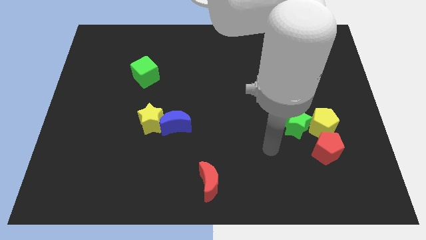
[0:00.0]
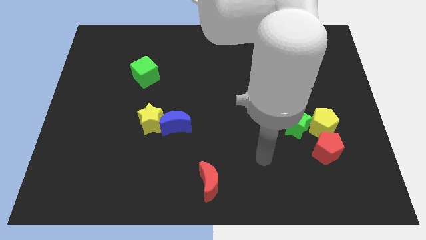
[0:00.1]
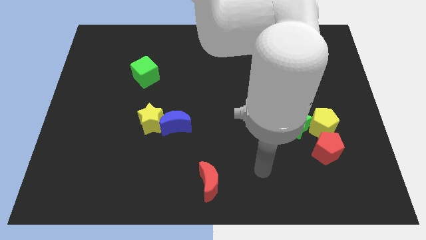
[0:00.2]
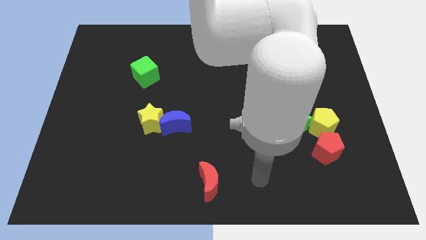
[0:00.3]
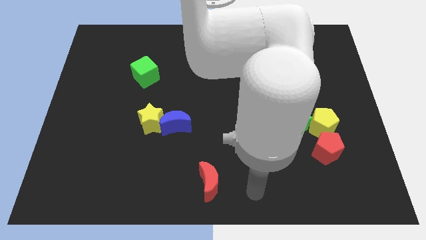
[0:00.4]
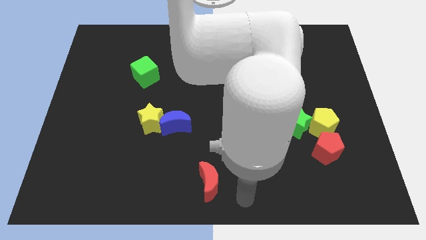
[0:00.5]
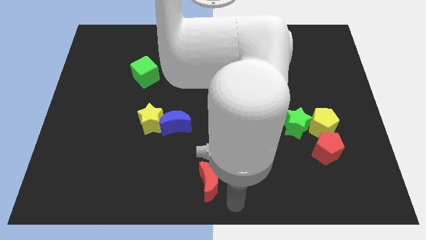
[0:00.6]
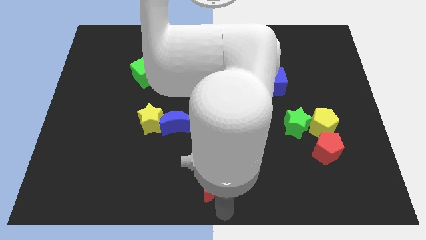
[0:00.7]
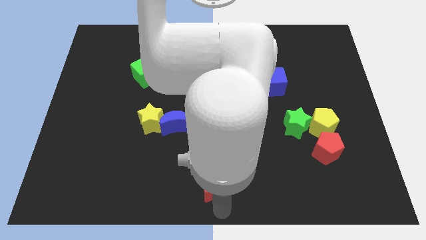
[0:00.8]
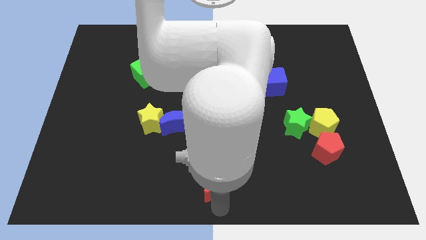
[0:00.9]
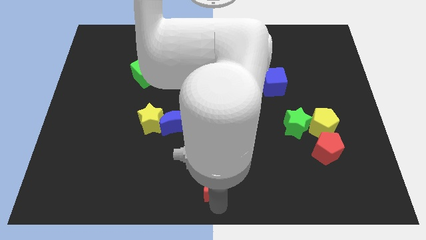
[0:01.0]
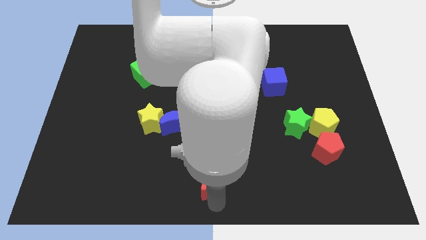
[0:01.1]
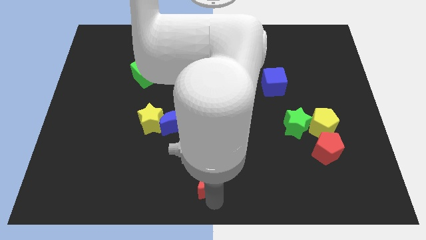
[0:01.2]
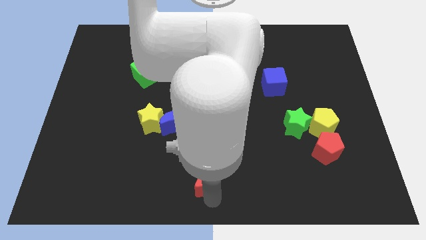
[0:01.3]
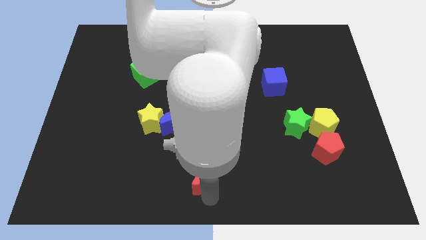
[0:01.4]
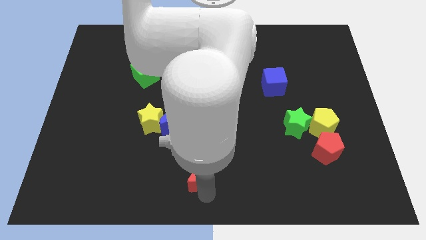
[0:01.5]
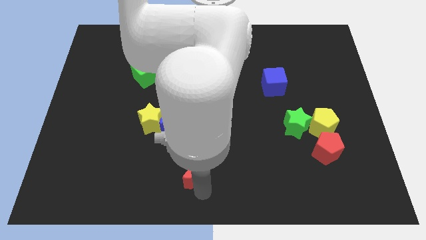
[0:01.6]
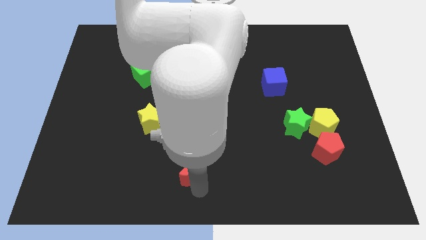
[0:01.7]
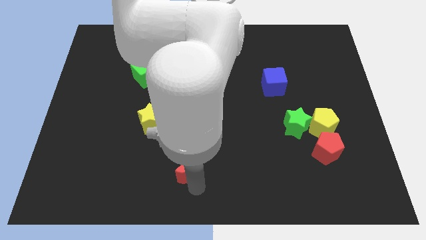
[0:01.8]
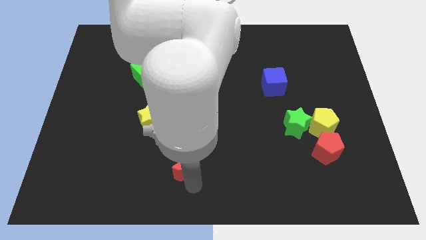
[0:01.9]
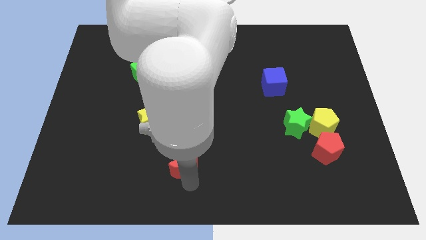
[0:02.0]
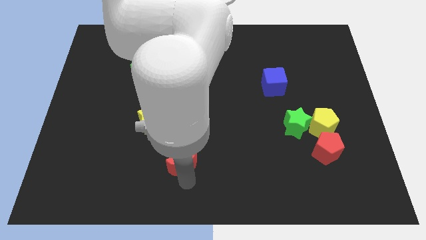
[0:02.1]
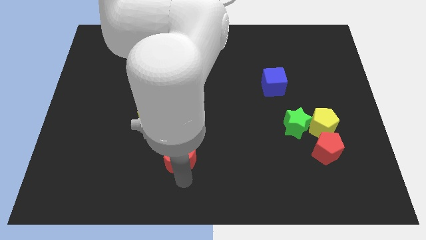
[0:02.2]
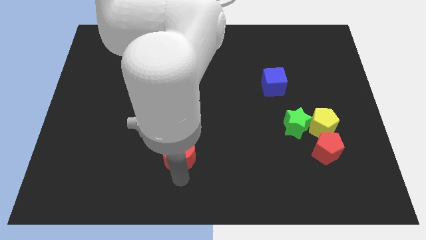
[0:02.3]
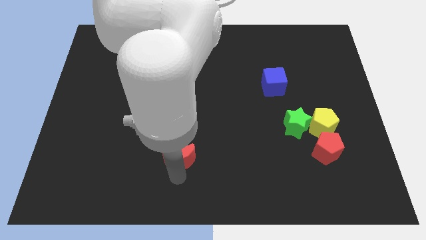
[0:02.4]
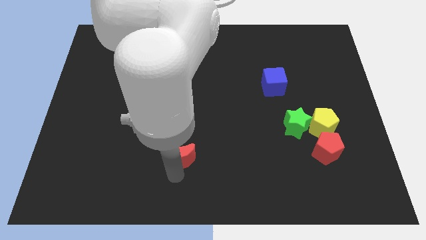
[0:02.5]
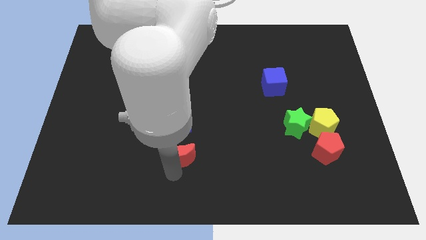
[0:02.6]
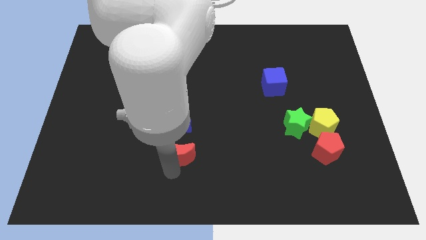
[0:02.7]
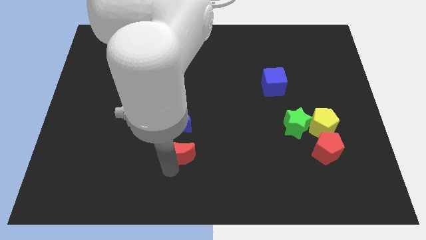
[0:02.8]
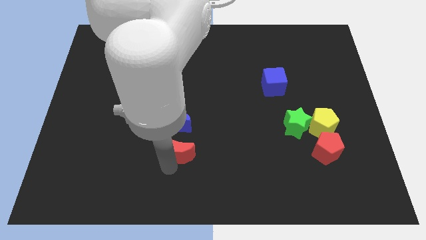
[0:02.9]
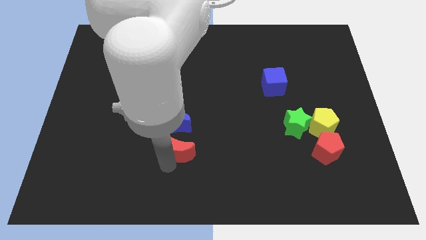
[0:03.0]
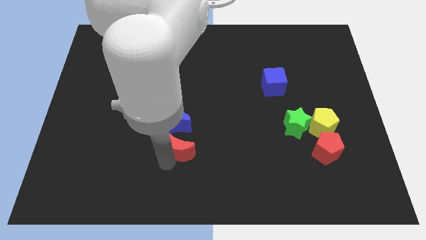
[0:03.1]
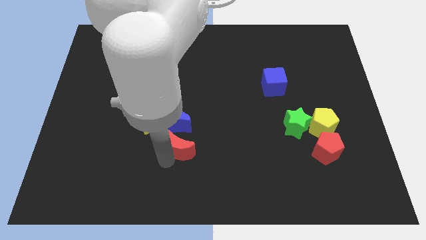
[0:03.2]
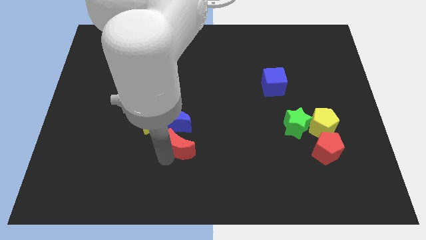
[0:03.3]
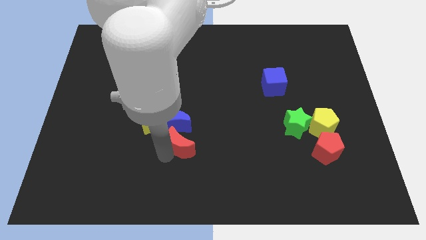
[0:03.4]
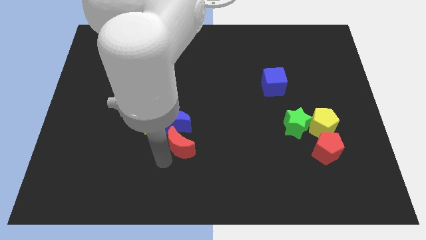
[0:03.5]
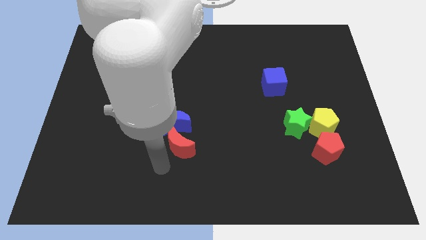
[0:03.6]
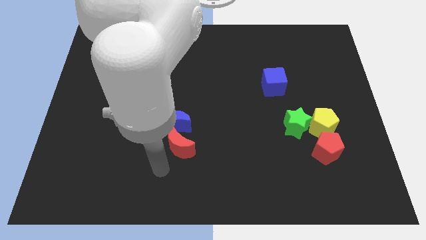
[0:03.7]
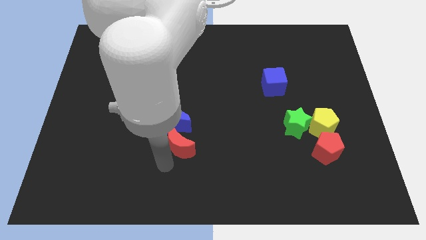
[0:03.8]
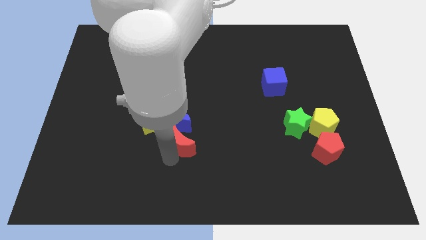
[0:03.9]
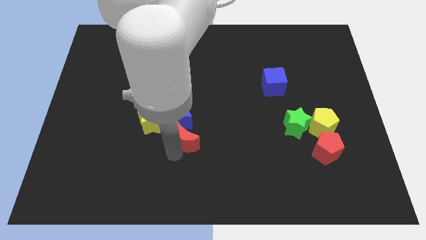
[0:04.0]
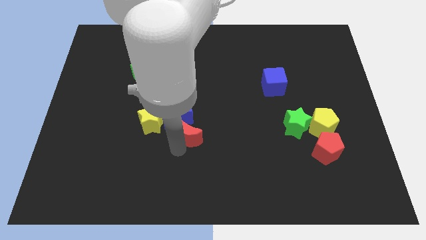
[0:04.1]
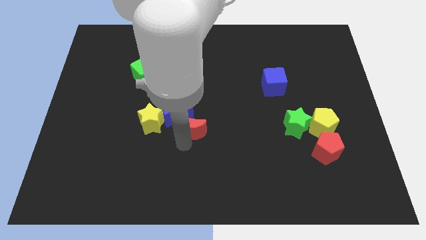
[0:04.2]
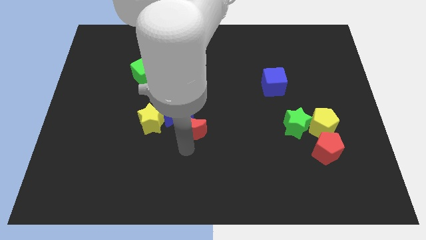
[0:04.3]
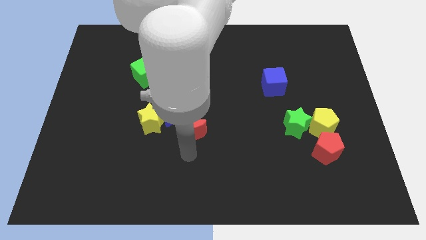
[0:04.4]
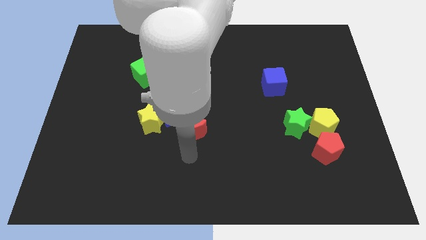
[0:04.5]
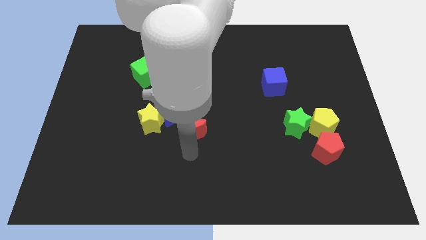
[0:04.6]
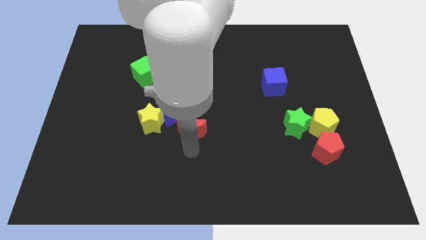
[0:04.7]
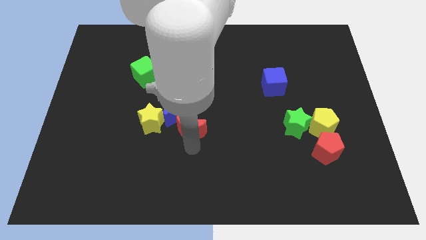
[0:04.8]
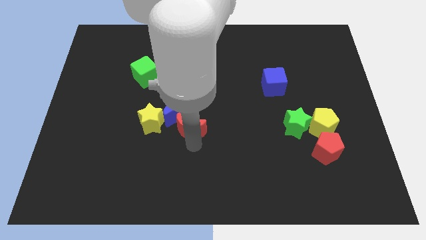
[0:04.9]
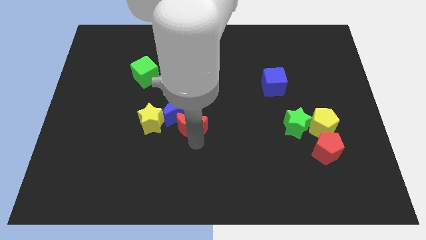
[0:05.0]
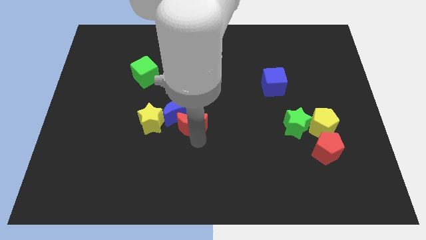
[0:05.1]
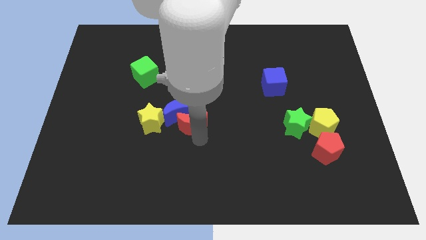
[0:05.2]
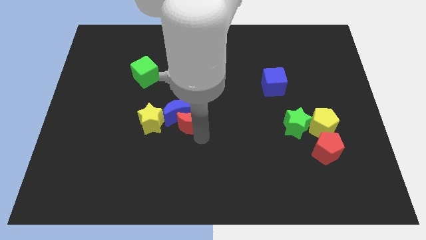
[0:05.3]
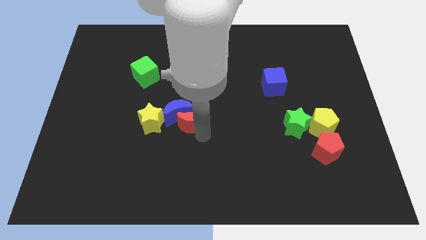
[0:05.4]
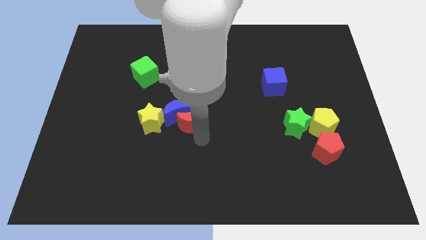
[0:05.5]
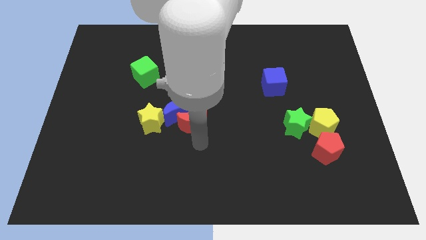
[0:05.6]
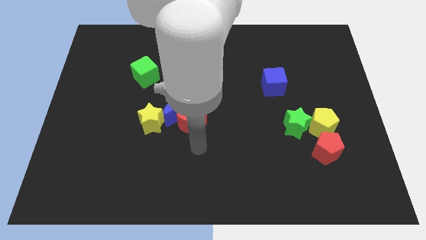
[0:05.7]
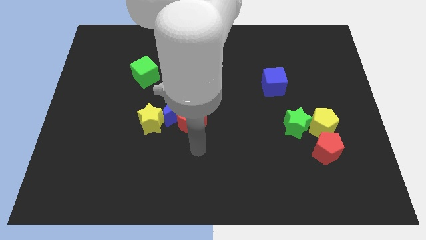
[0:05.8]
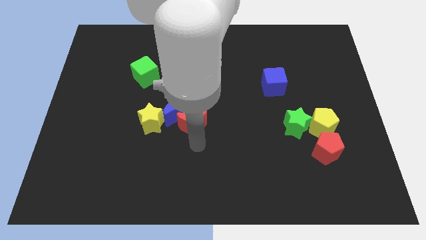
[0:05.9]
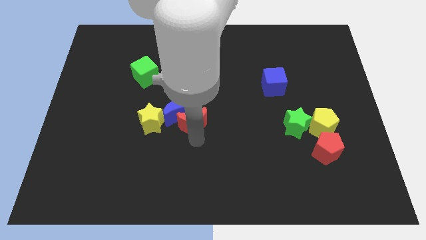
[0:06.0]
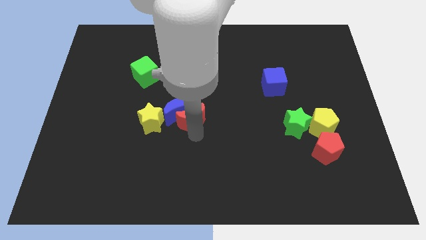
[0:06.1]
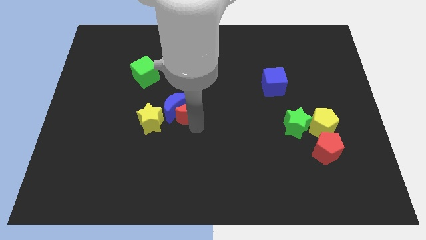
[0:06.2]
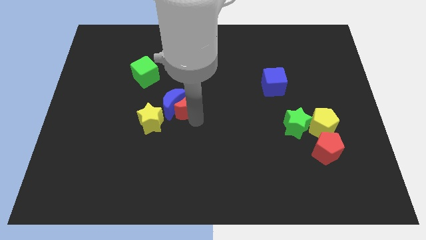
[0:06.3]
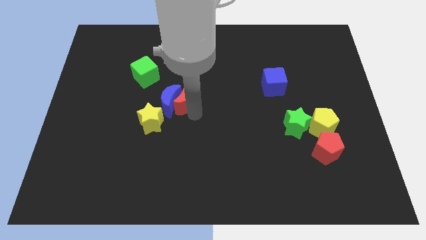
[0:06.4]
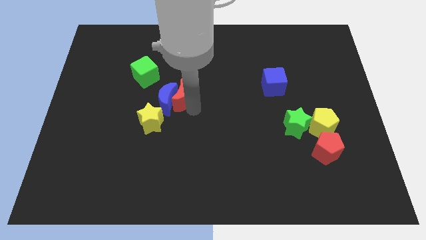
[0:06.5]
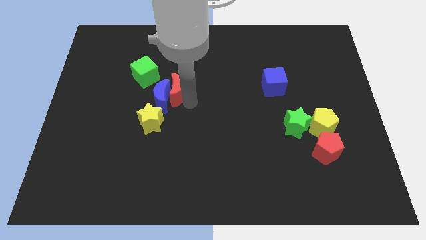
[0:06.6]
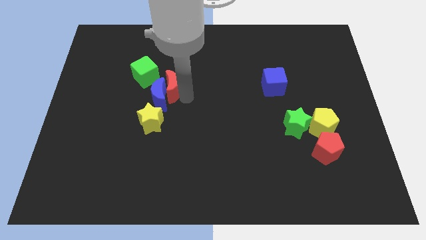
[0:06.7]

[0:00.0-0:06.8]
move the red moon to the top of the yellow star
